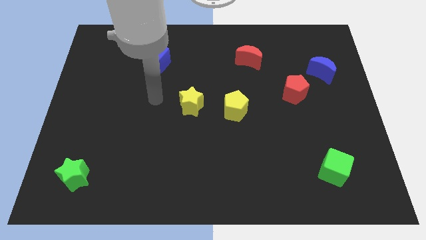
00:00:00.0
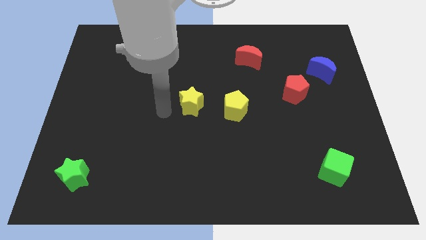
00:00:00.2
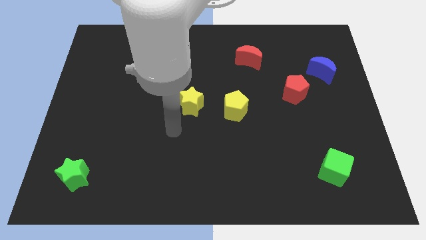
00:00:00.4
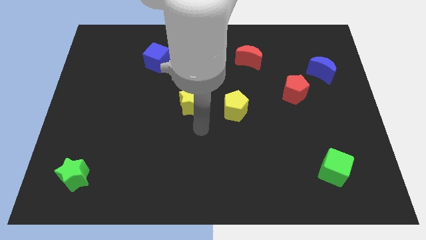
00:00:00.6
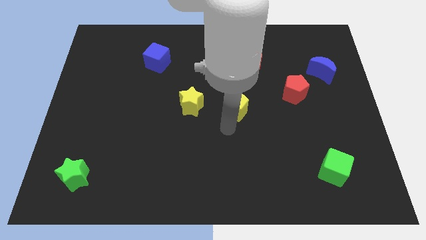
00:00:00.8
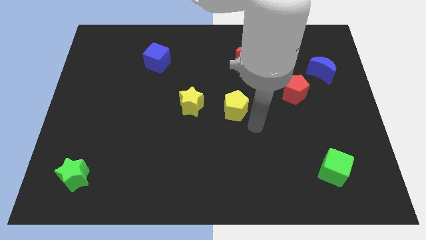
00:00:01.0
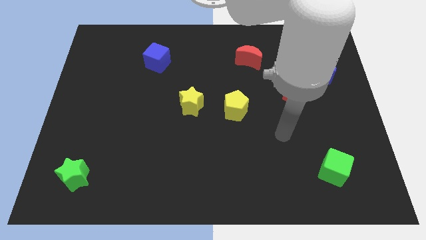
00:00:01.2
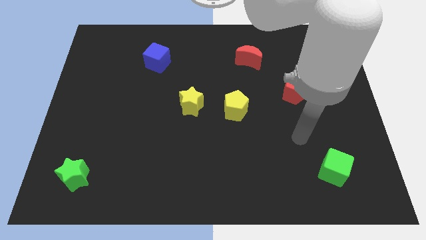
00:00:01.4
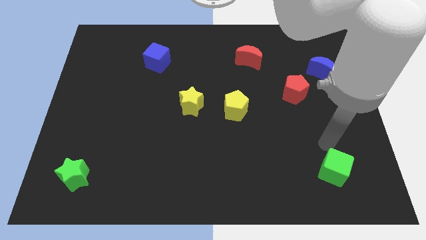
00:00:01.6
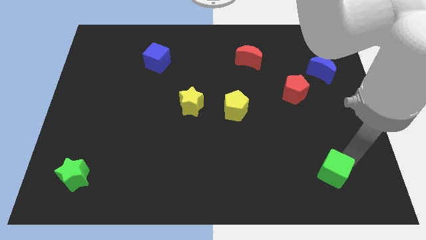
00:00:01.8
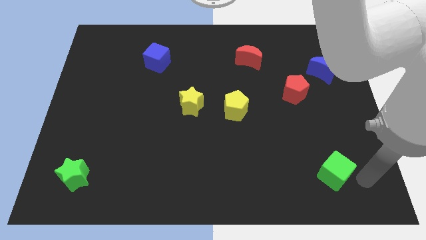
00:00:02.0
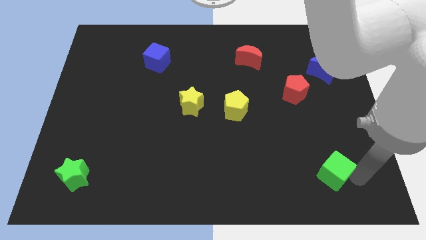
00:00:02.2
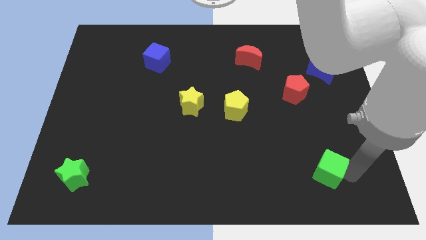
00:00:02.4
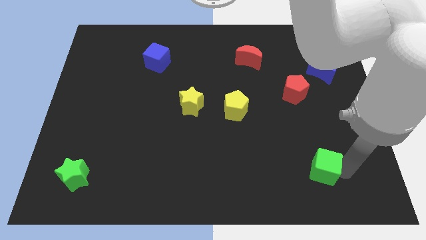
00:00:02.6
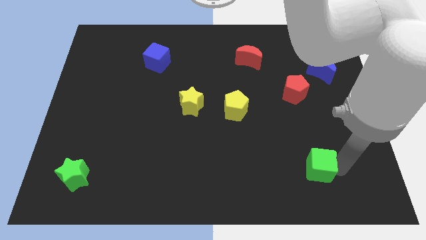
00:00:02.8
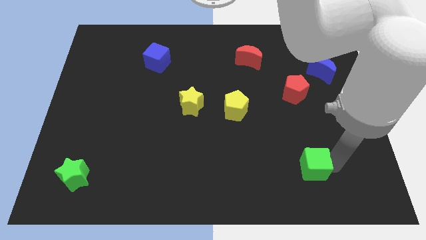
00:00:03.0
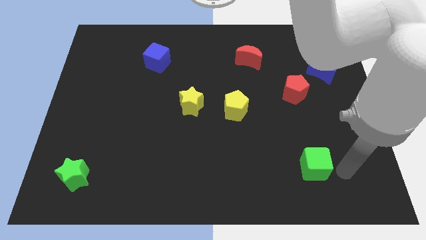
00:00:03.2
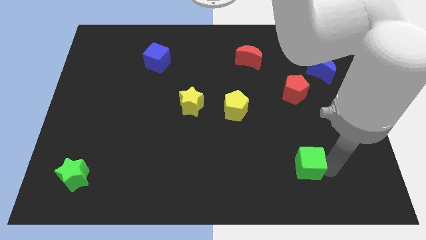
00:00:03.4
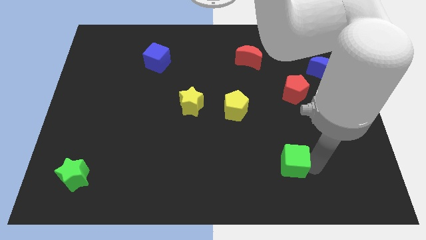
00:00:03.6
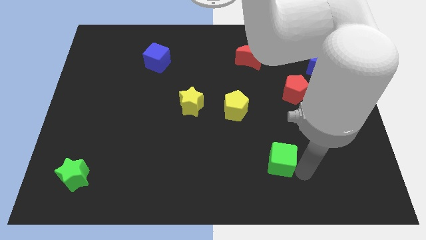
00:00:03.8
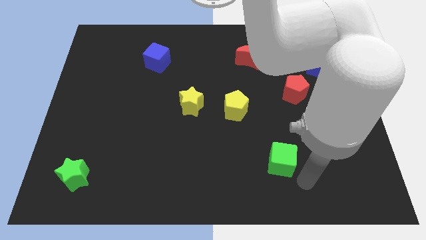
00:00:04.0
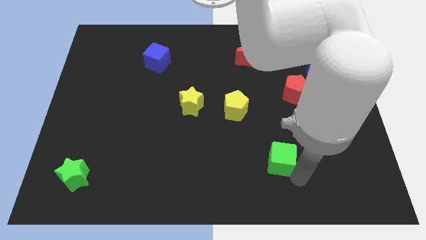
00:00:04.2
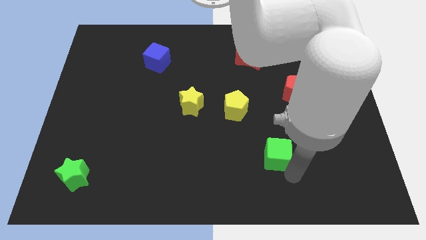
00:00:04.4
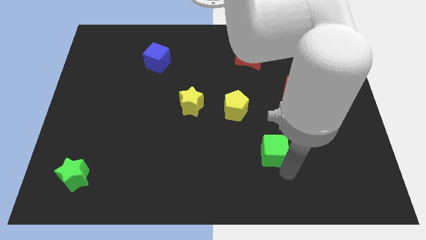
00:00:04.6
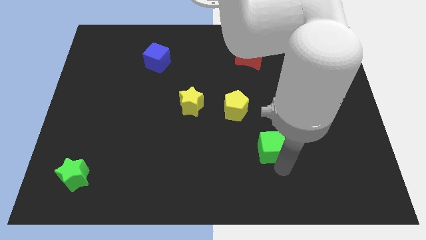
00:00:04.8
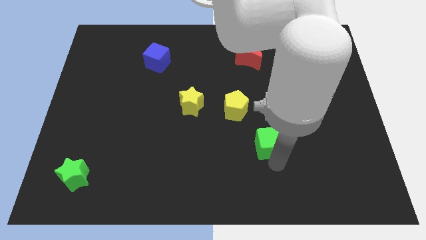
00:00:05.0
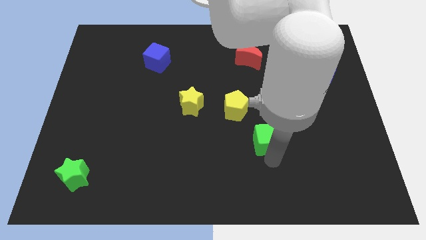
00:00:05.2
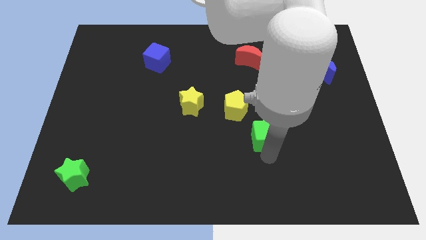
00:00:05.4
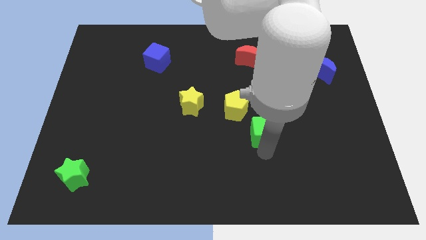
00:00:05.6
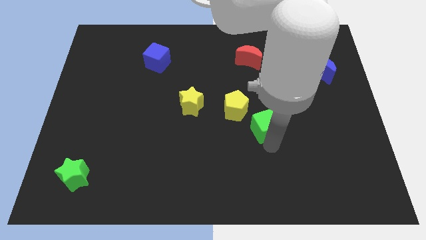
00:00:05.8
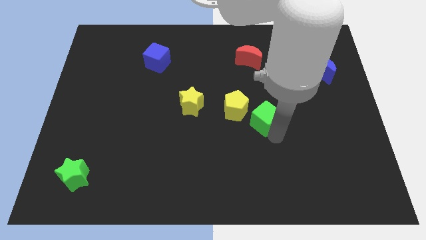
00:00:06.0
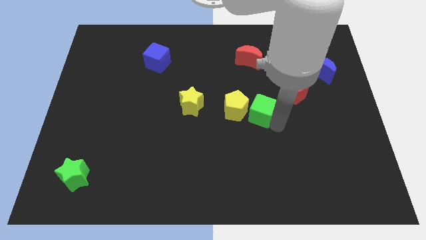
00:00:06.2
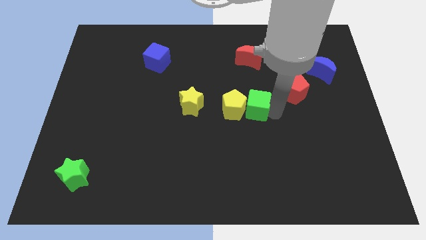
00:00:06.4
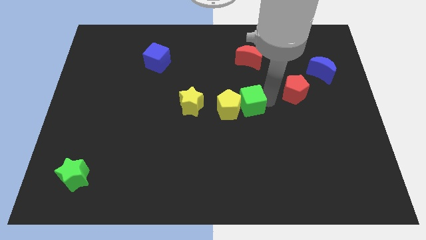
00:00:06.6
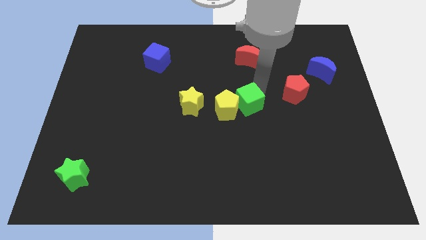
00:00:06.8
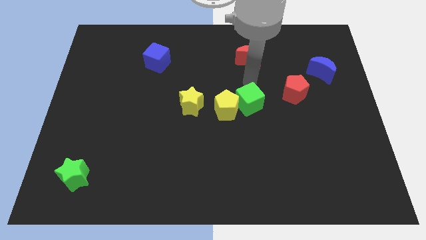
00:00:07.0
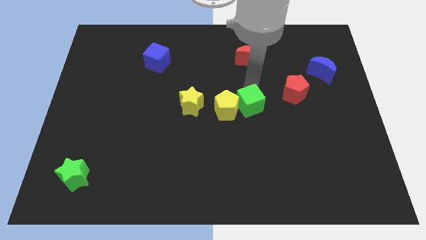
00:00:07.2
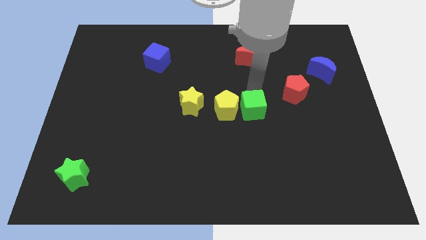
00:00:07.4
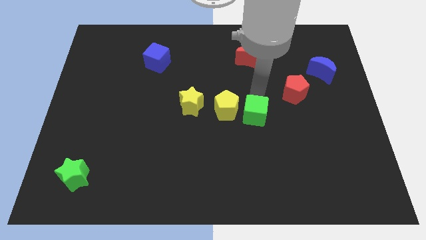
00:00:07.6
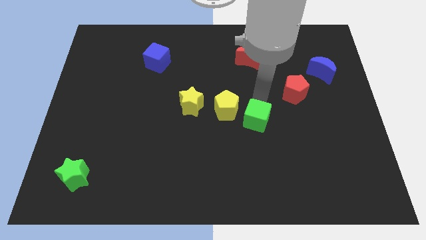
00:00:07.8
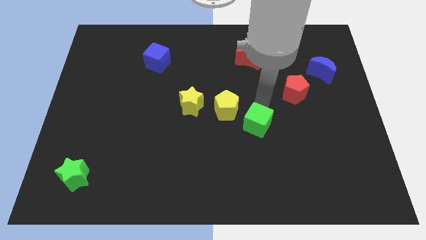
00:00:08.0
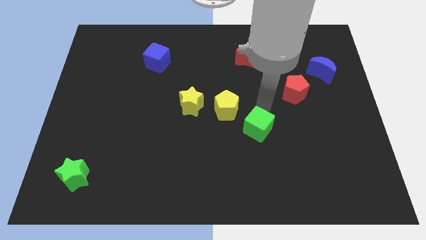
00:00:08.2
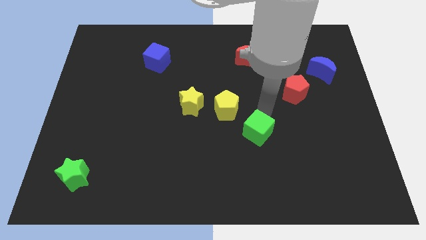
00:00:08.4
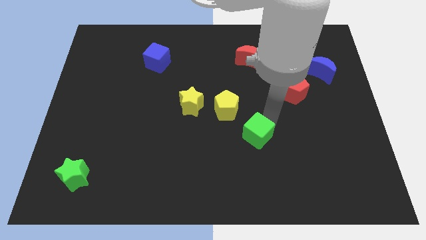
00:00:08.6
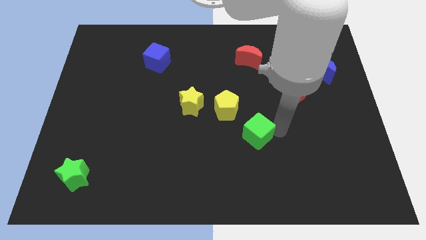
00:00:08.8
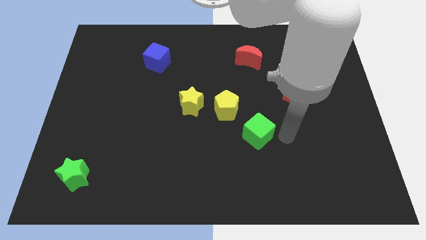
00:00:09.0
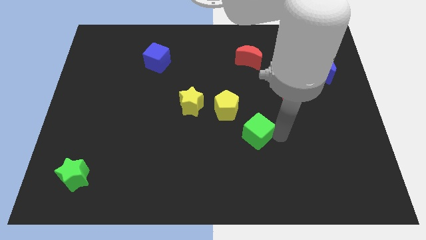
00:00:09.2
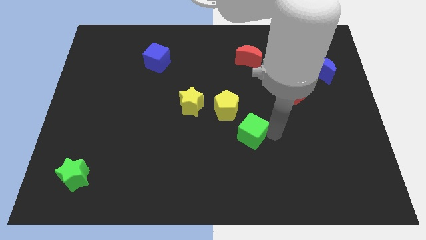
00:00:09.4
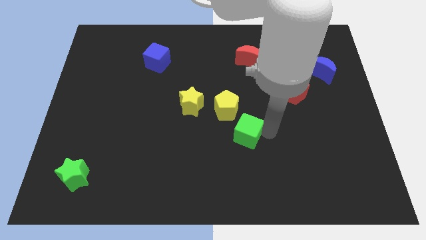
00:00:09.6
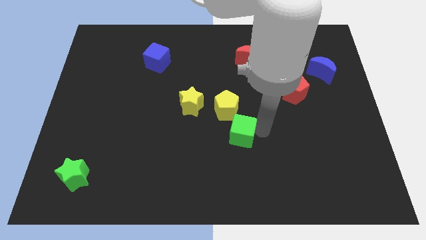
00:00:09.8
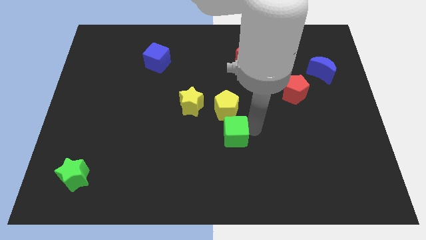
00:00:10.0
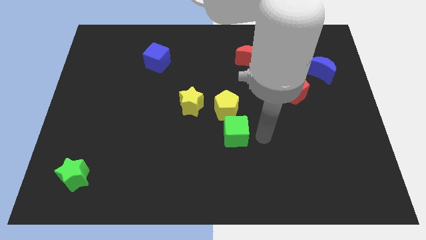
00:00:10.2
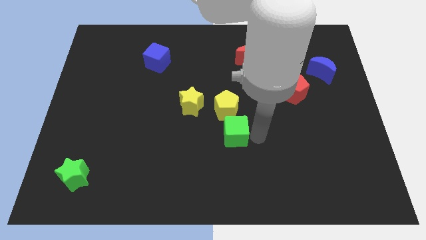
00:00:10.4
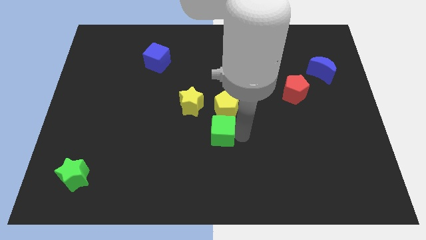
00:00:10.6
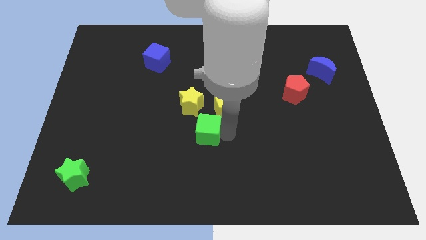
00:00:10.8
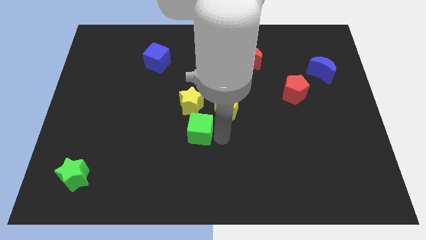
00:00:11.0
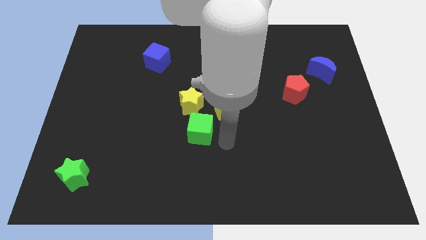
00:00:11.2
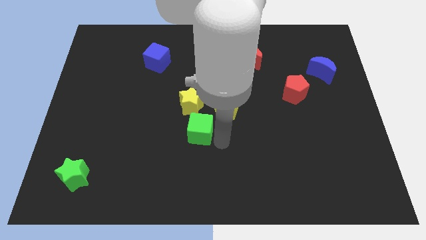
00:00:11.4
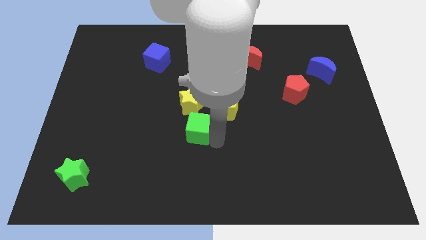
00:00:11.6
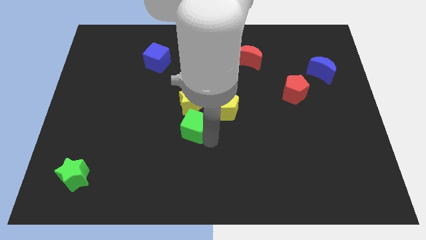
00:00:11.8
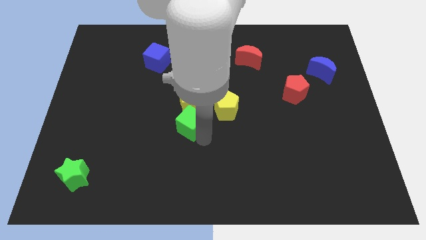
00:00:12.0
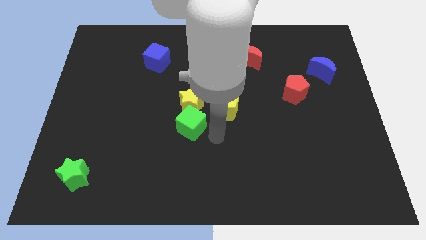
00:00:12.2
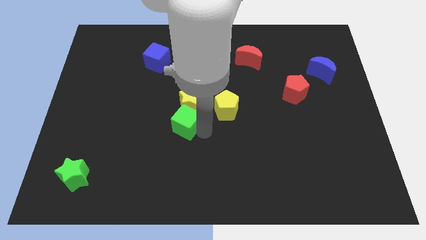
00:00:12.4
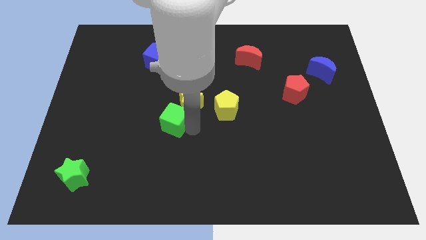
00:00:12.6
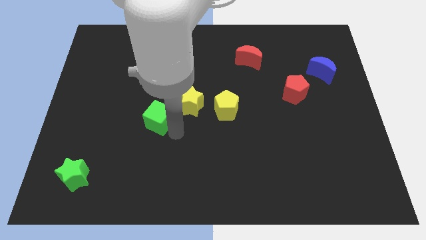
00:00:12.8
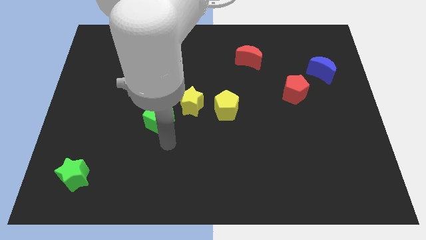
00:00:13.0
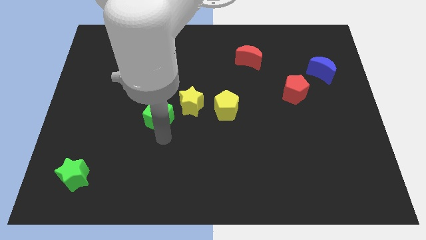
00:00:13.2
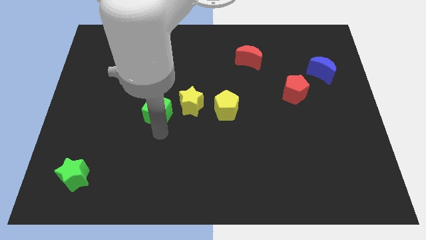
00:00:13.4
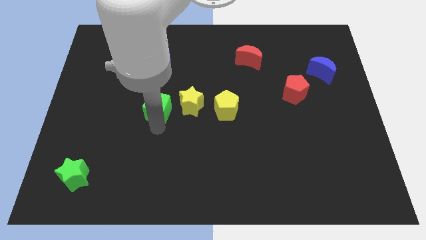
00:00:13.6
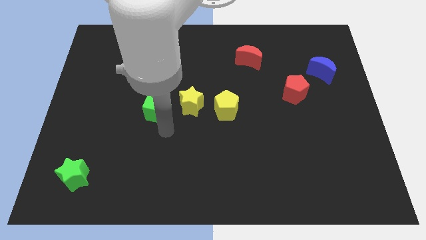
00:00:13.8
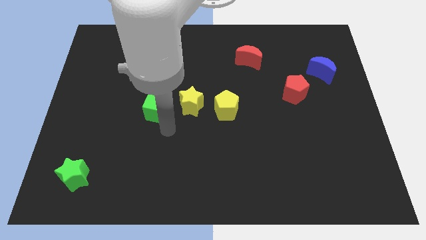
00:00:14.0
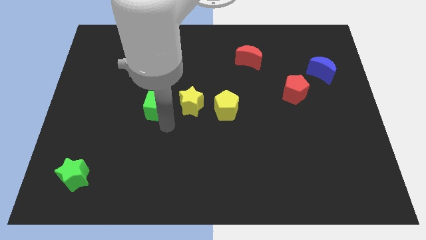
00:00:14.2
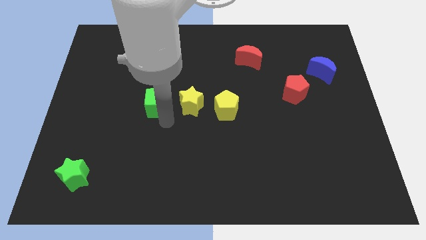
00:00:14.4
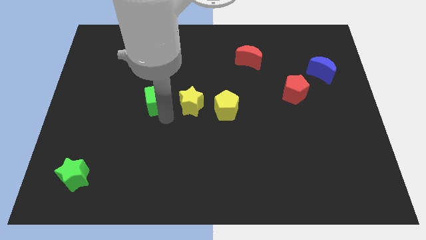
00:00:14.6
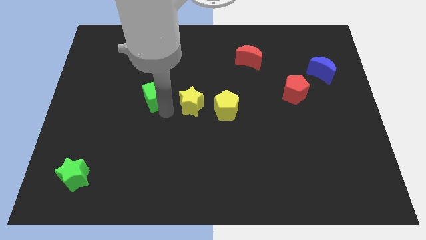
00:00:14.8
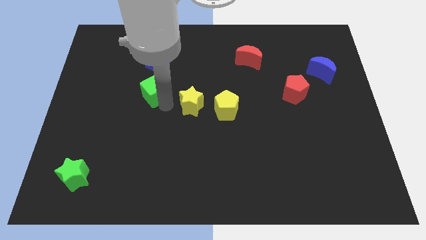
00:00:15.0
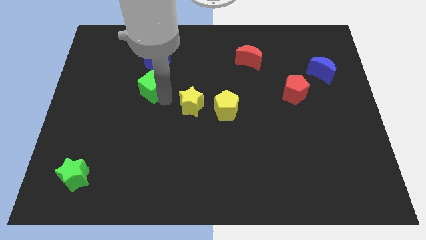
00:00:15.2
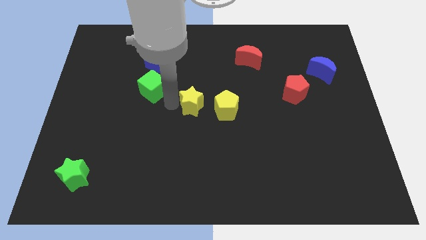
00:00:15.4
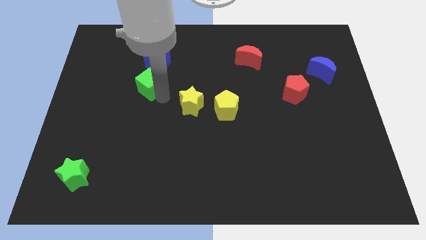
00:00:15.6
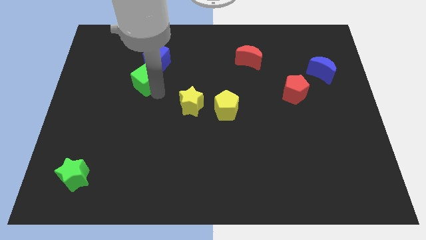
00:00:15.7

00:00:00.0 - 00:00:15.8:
push the green cube diagonally down and to the left of the blue cube
